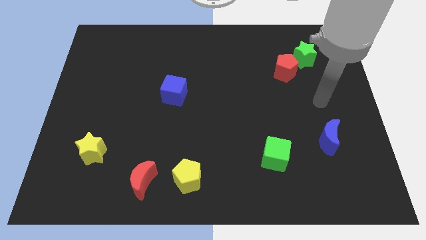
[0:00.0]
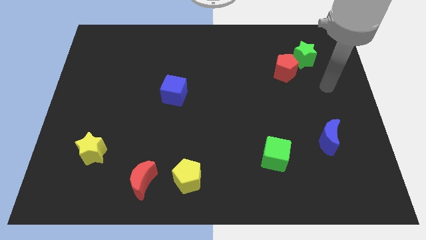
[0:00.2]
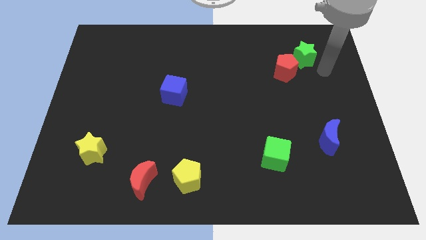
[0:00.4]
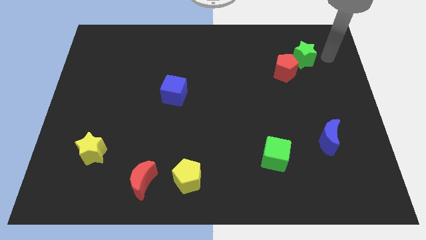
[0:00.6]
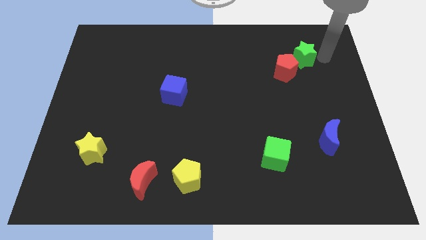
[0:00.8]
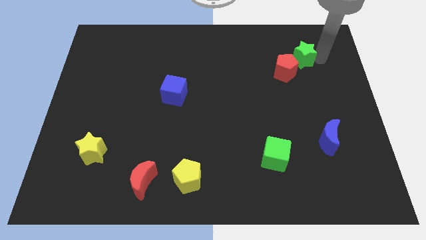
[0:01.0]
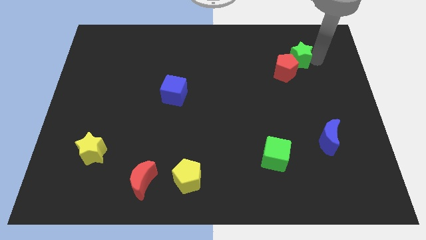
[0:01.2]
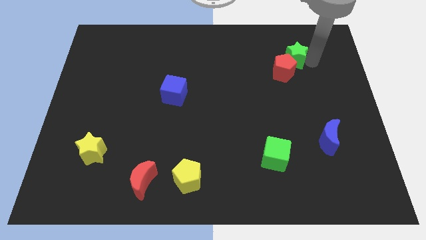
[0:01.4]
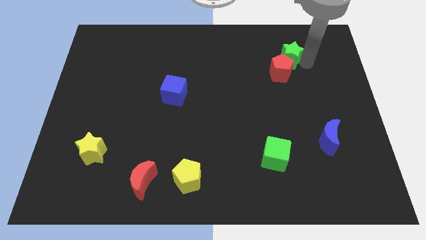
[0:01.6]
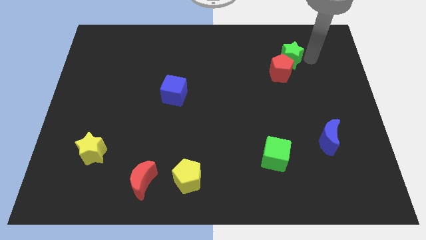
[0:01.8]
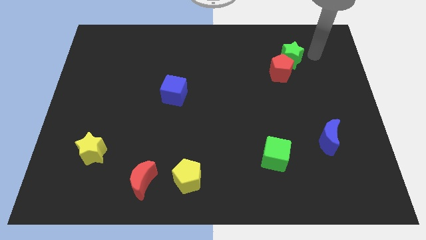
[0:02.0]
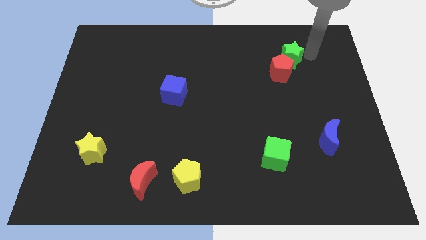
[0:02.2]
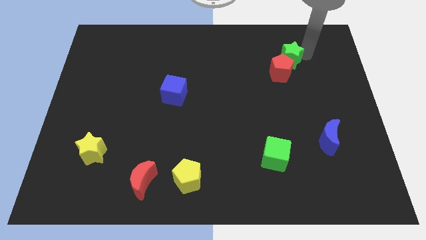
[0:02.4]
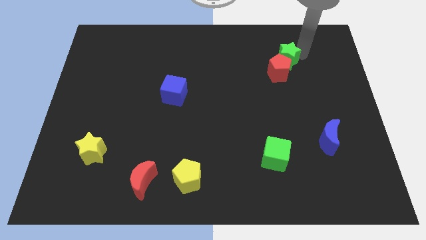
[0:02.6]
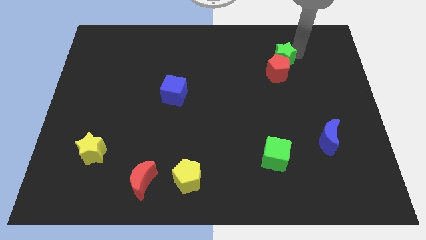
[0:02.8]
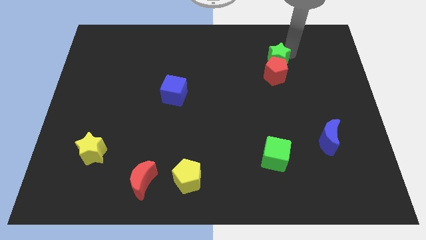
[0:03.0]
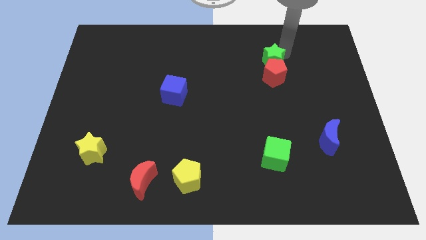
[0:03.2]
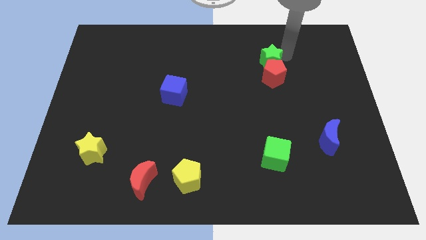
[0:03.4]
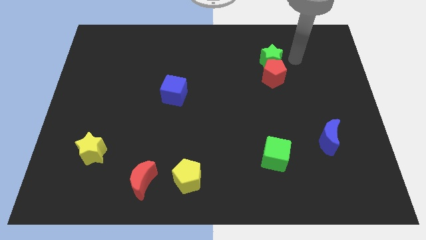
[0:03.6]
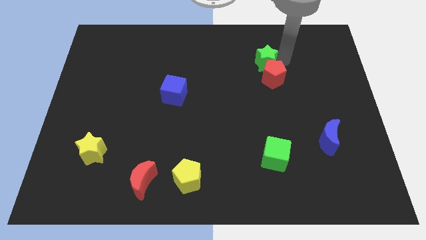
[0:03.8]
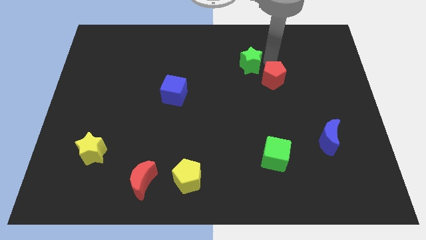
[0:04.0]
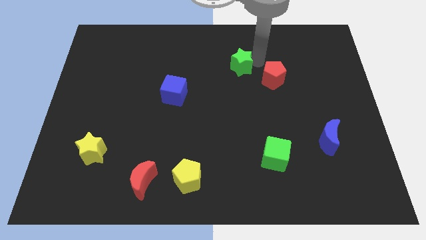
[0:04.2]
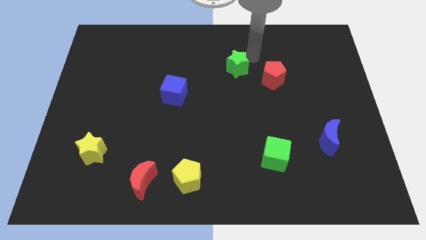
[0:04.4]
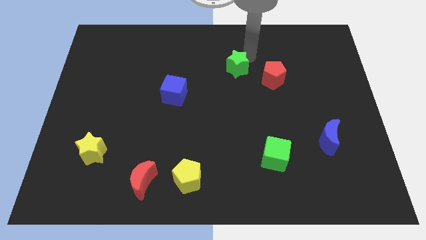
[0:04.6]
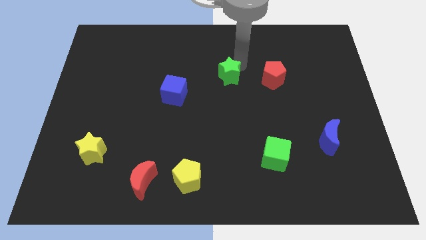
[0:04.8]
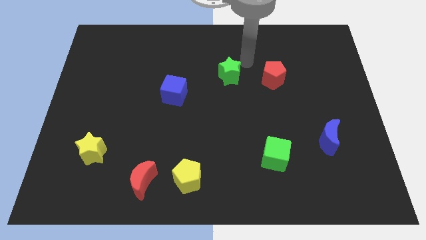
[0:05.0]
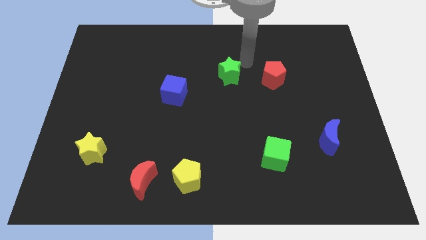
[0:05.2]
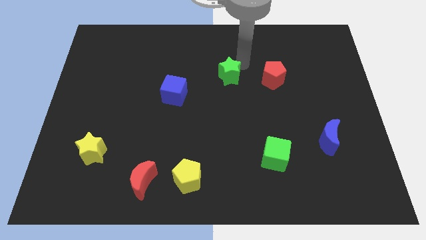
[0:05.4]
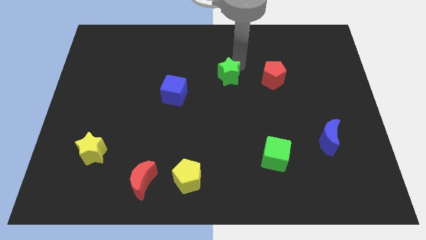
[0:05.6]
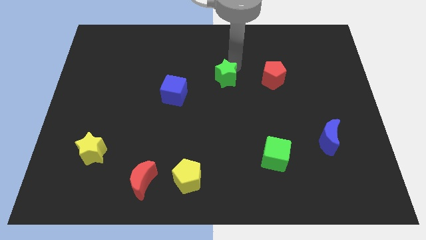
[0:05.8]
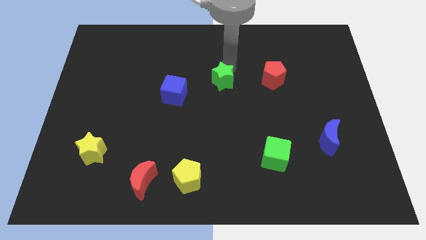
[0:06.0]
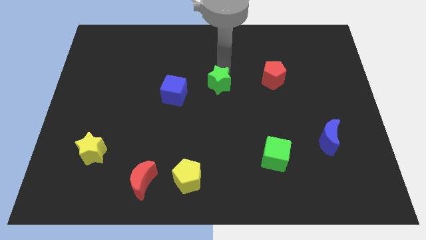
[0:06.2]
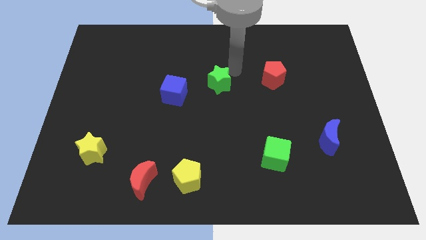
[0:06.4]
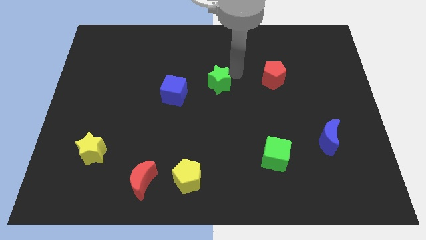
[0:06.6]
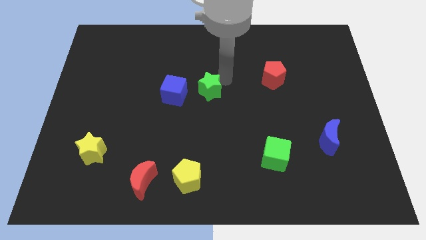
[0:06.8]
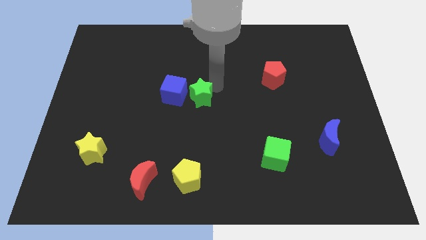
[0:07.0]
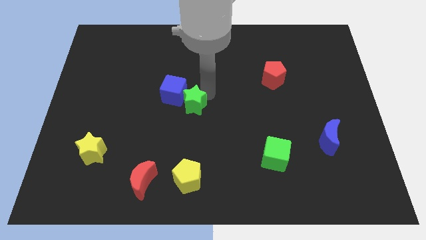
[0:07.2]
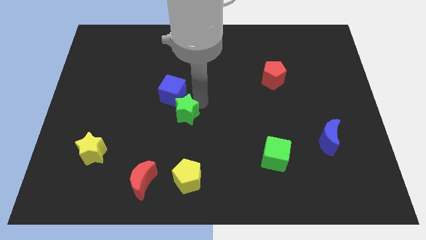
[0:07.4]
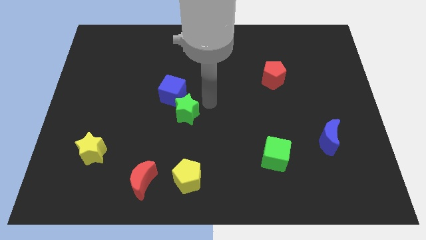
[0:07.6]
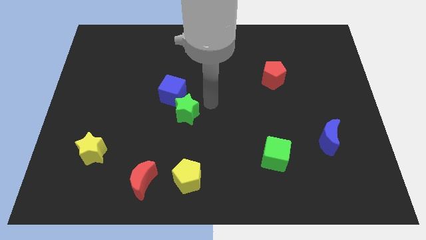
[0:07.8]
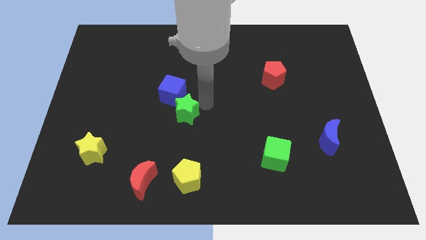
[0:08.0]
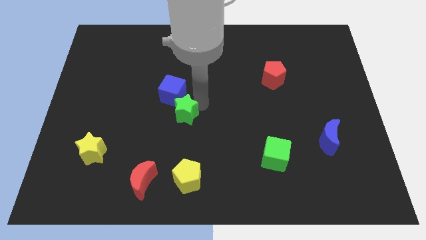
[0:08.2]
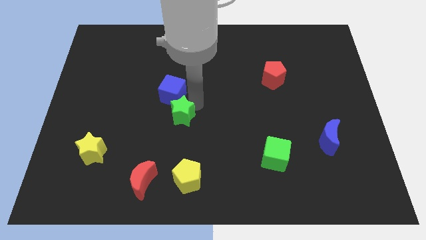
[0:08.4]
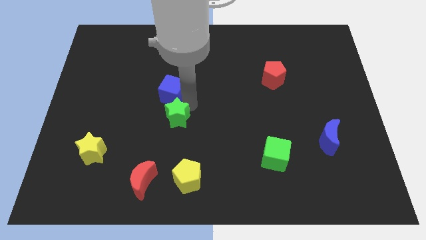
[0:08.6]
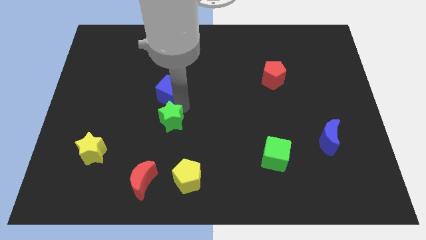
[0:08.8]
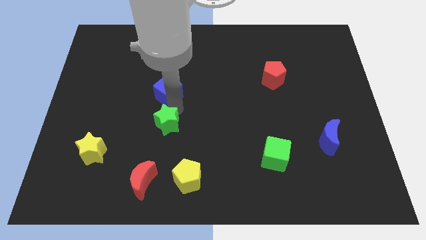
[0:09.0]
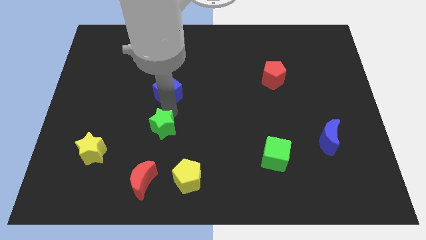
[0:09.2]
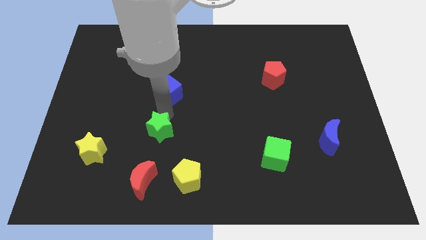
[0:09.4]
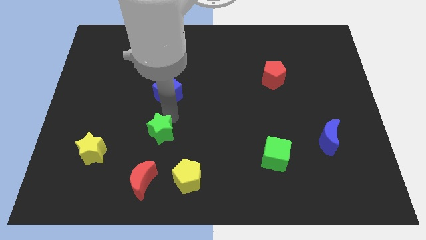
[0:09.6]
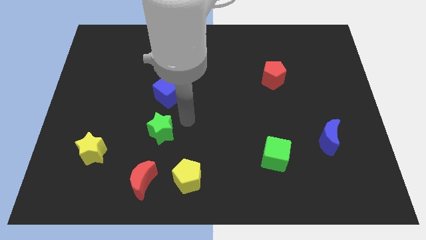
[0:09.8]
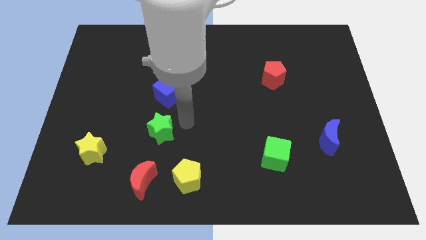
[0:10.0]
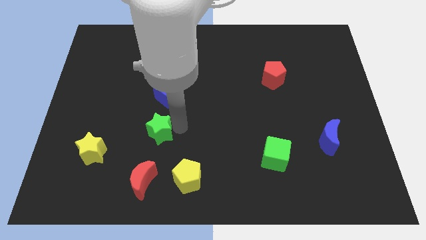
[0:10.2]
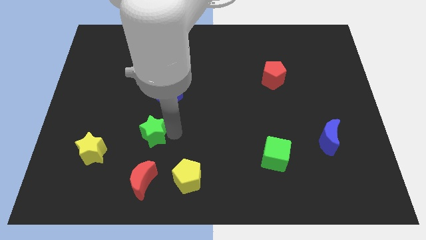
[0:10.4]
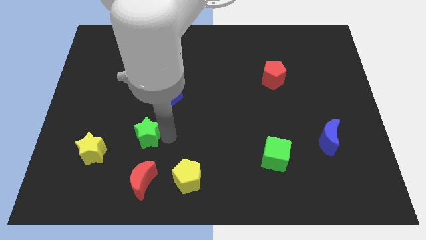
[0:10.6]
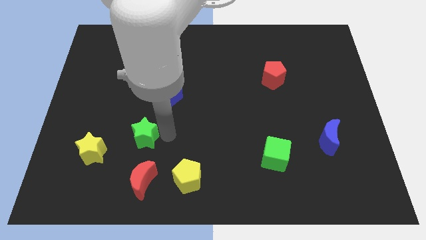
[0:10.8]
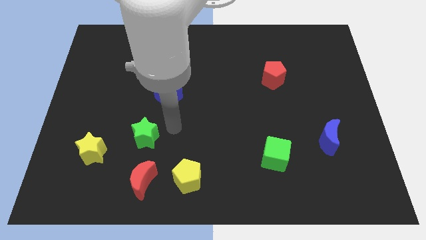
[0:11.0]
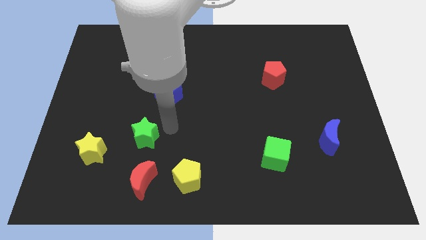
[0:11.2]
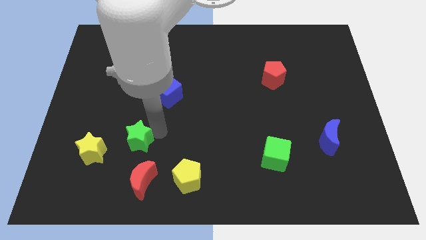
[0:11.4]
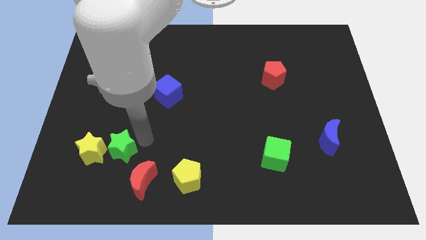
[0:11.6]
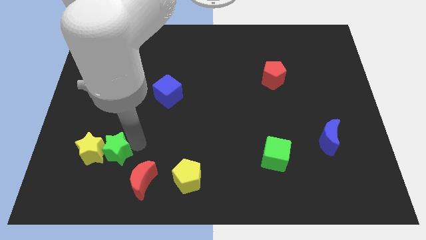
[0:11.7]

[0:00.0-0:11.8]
push the green star next to the yellow star

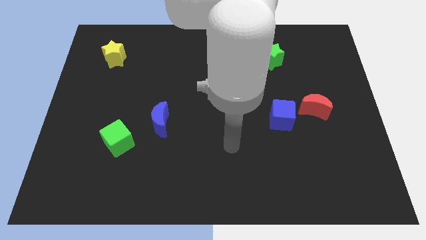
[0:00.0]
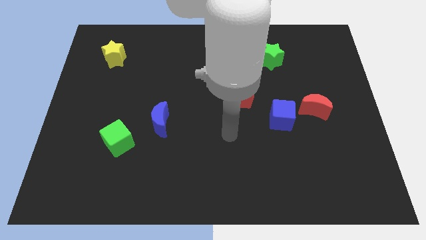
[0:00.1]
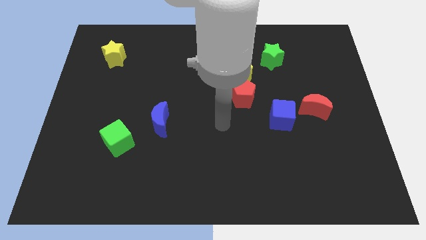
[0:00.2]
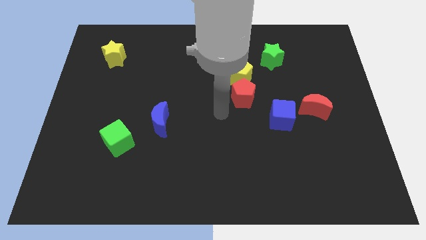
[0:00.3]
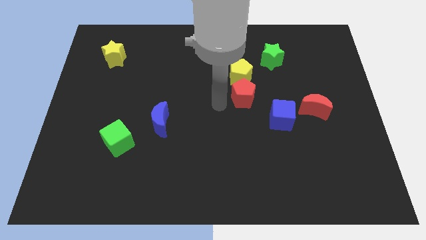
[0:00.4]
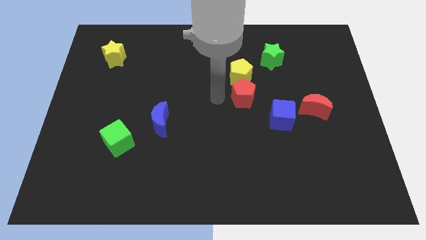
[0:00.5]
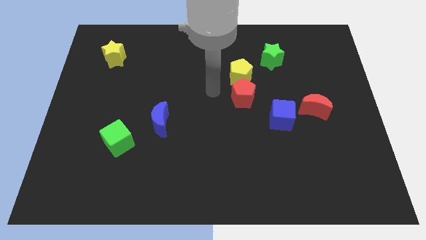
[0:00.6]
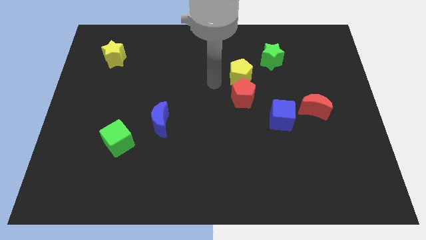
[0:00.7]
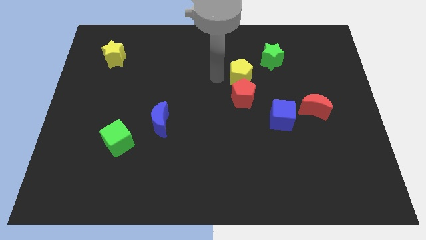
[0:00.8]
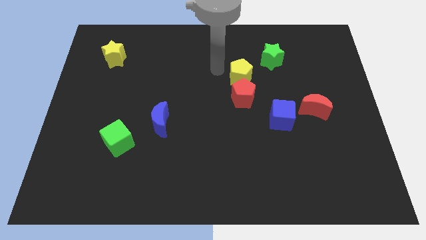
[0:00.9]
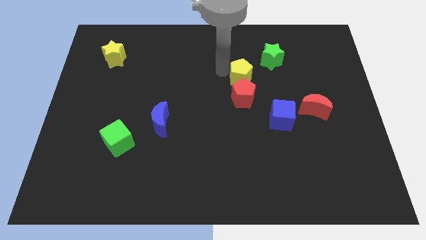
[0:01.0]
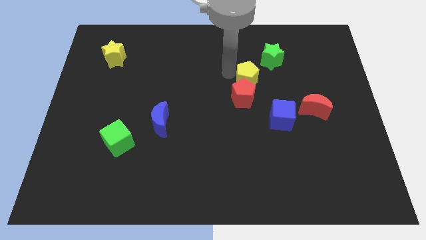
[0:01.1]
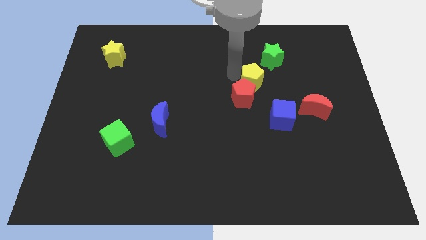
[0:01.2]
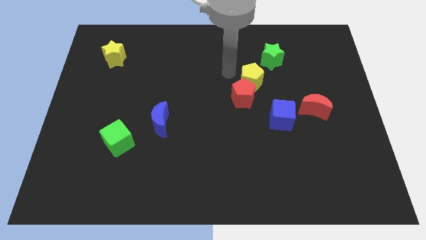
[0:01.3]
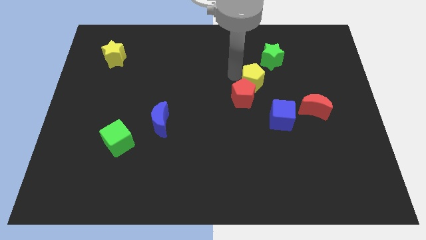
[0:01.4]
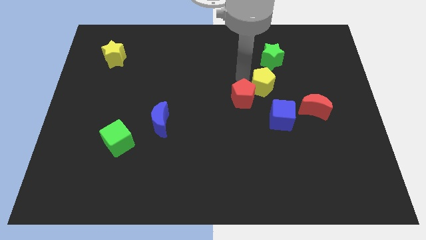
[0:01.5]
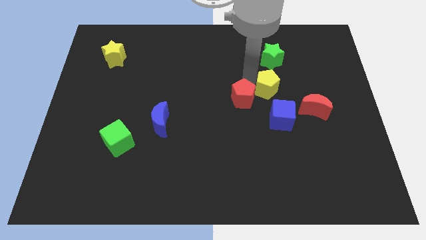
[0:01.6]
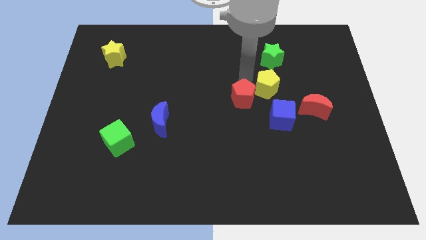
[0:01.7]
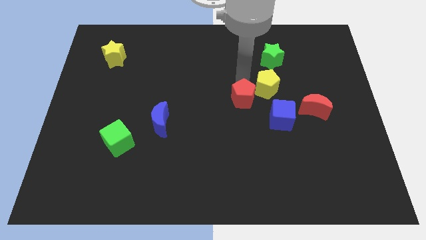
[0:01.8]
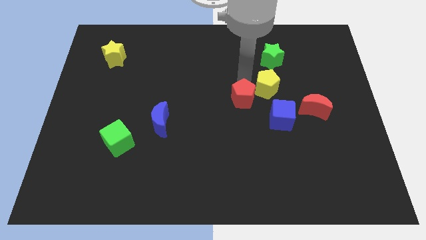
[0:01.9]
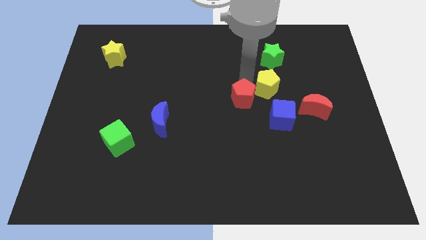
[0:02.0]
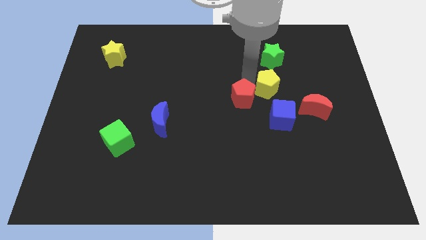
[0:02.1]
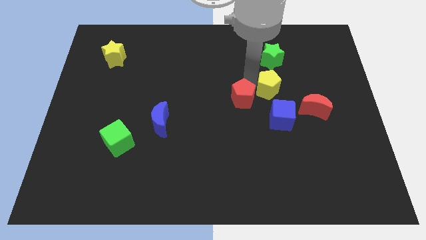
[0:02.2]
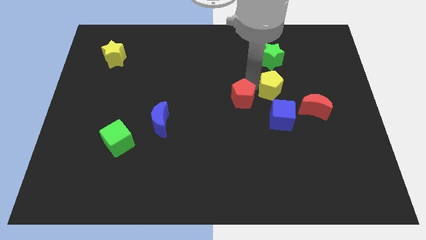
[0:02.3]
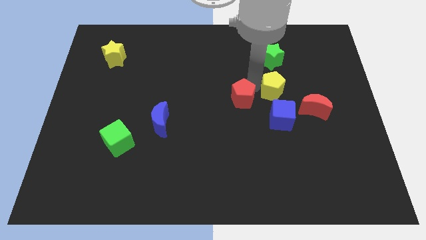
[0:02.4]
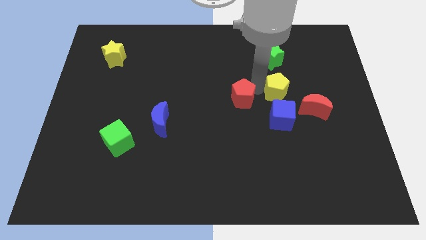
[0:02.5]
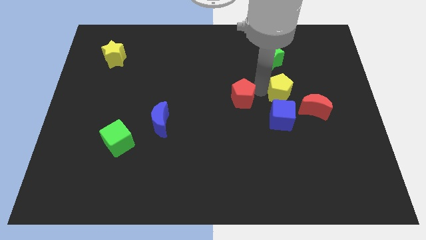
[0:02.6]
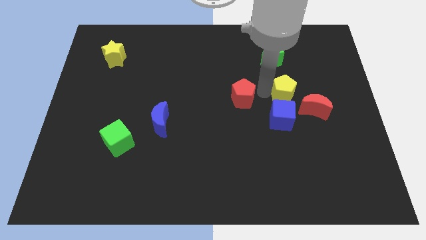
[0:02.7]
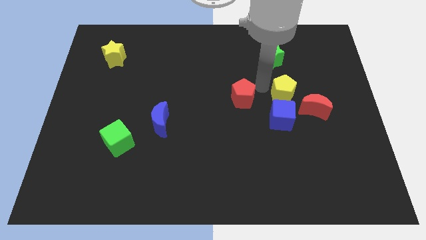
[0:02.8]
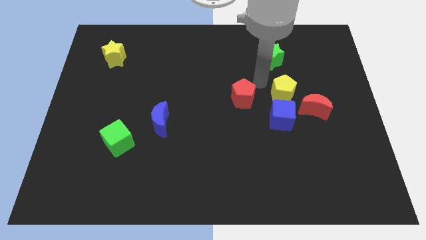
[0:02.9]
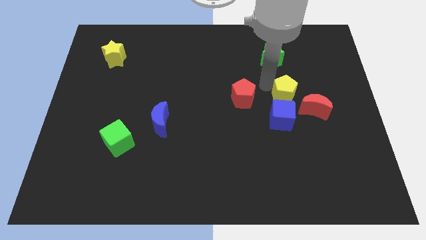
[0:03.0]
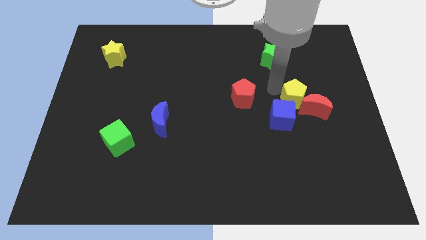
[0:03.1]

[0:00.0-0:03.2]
move the yellow pentagon close to the red moon
